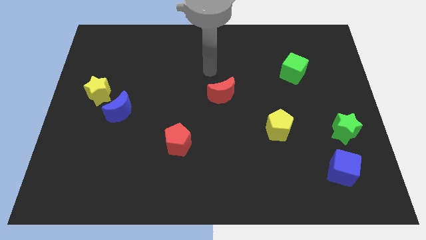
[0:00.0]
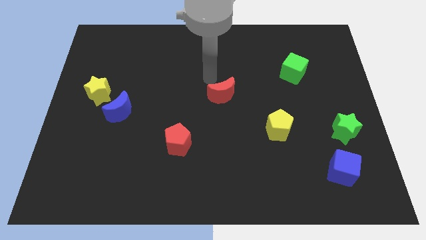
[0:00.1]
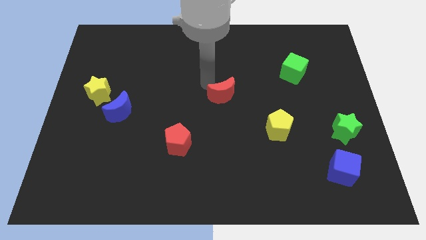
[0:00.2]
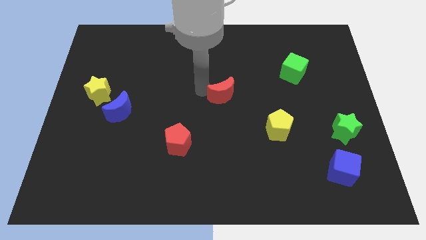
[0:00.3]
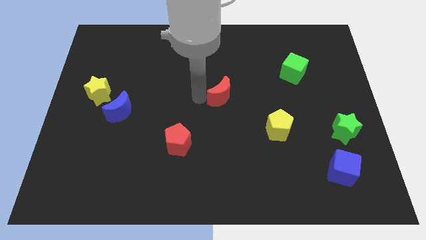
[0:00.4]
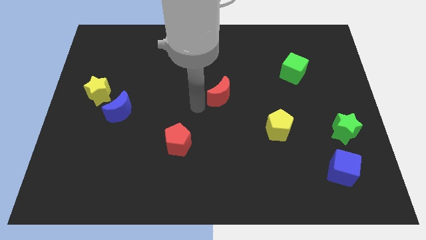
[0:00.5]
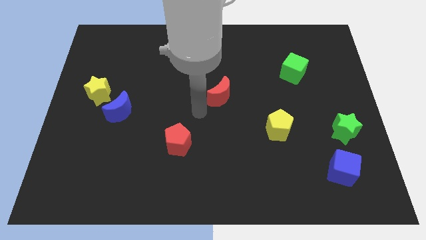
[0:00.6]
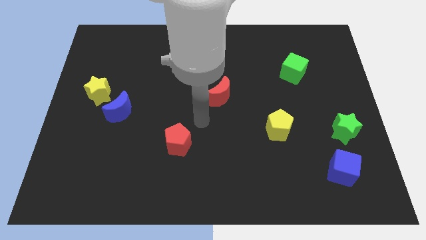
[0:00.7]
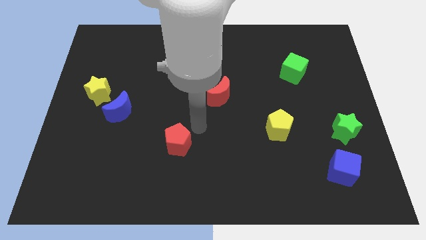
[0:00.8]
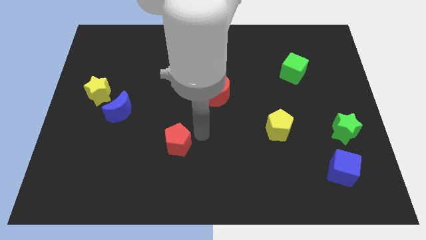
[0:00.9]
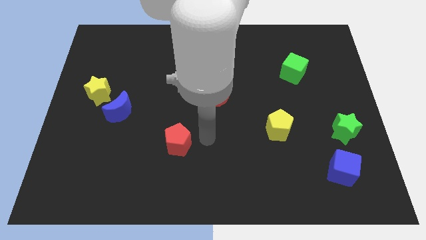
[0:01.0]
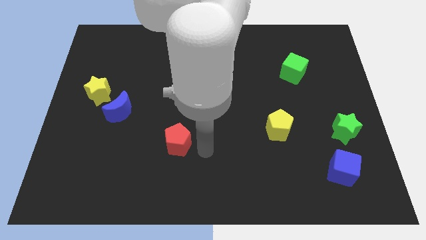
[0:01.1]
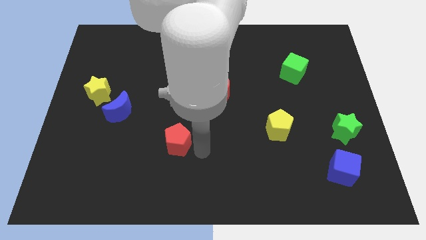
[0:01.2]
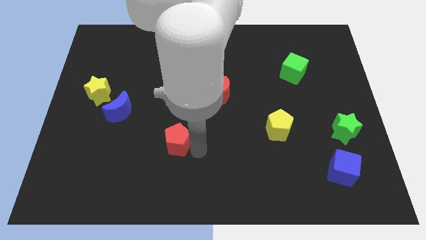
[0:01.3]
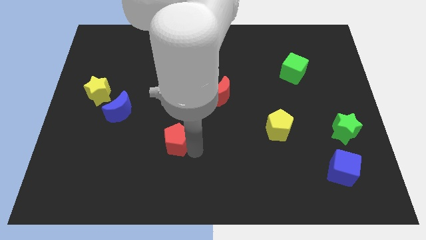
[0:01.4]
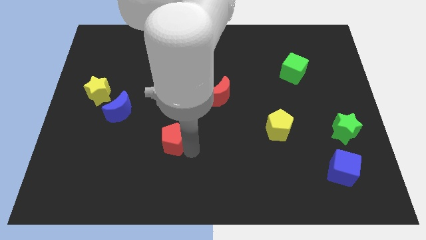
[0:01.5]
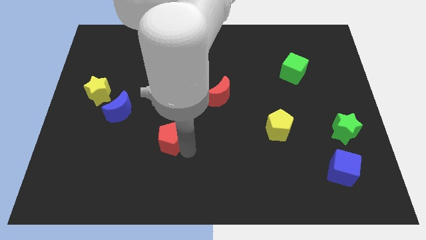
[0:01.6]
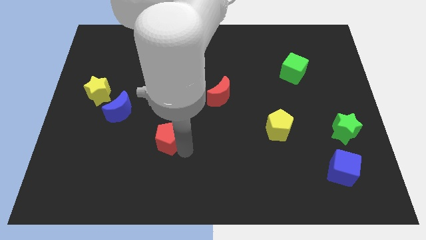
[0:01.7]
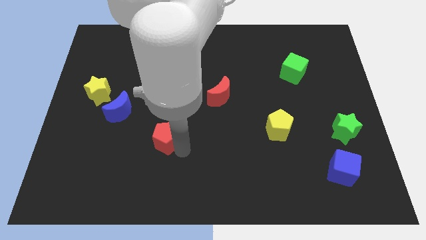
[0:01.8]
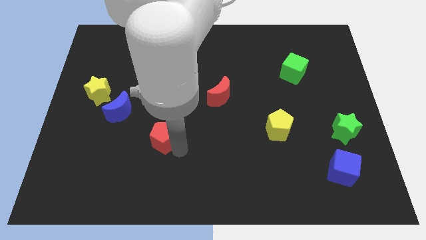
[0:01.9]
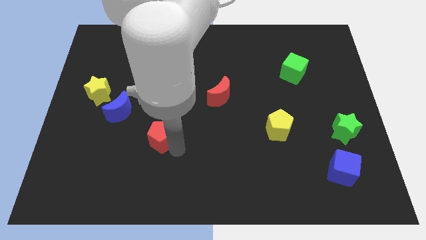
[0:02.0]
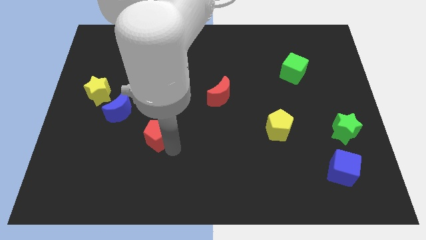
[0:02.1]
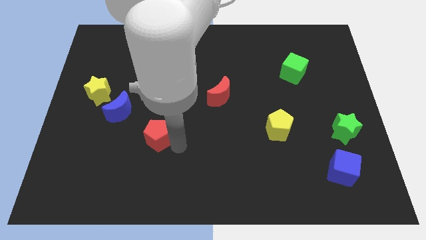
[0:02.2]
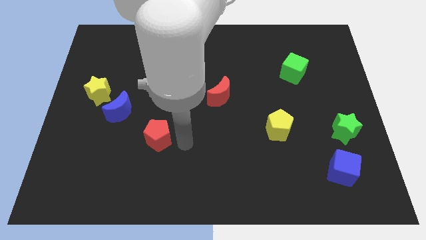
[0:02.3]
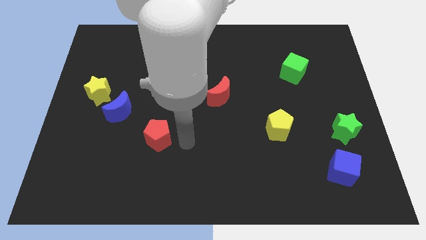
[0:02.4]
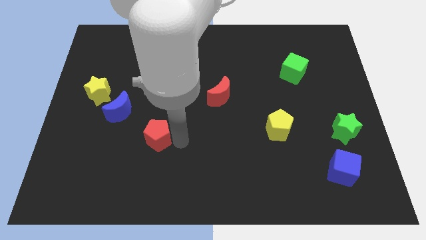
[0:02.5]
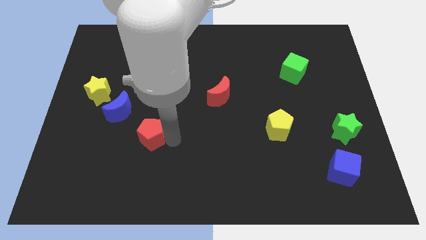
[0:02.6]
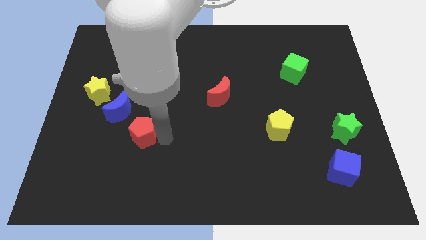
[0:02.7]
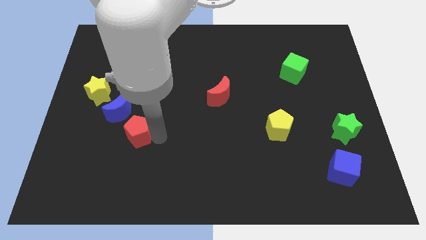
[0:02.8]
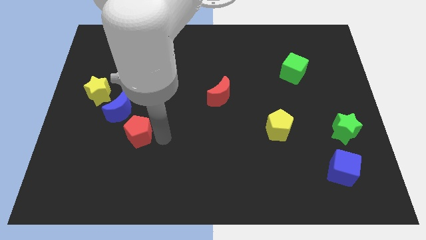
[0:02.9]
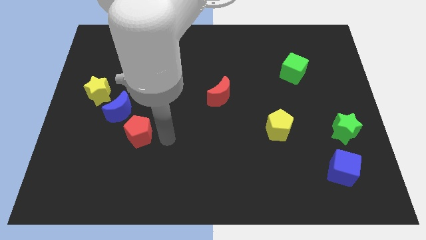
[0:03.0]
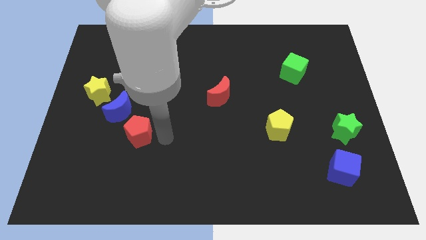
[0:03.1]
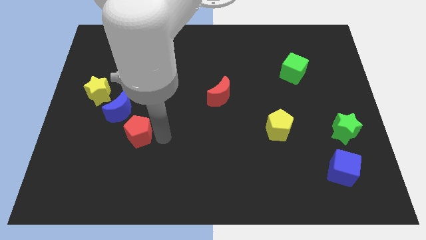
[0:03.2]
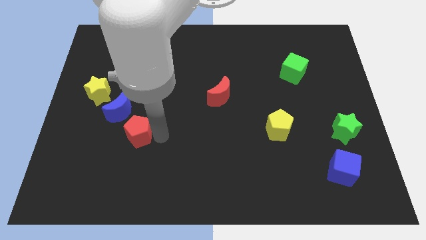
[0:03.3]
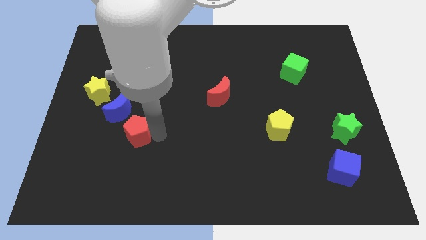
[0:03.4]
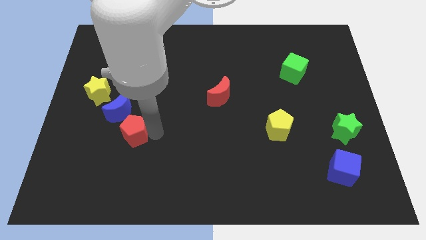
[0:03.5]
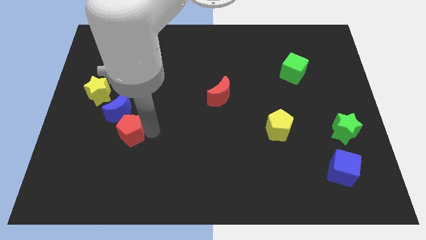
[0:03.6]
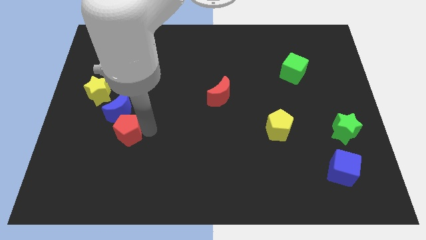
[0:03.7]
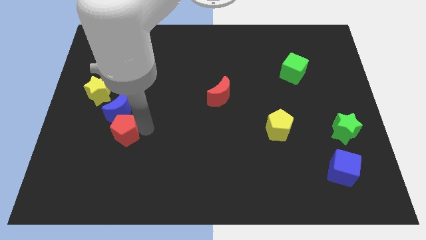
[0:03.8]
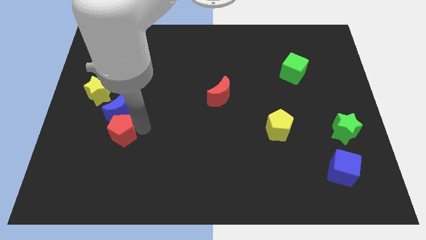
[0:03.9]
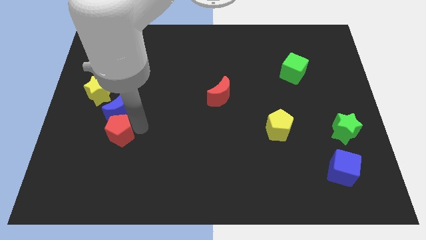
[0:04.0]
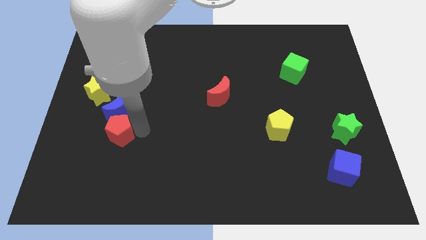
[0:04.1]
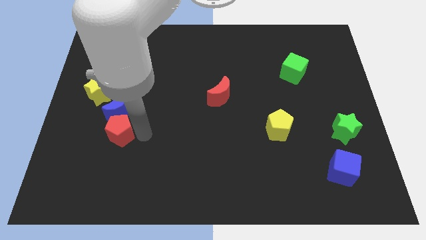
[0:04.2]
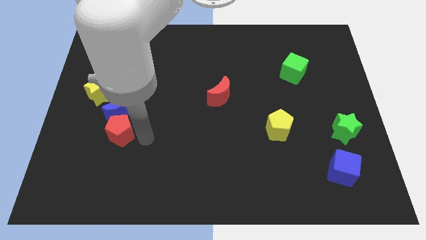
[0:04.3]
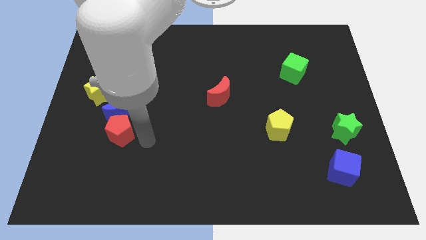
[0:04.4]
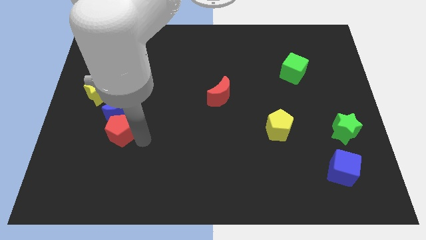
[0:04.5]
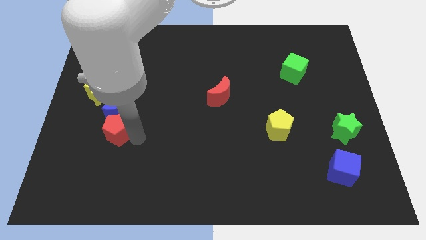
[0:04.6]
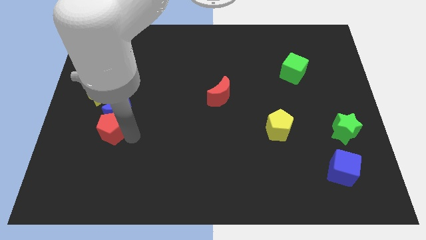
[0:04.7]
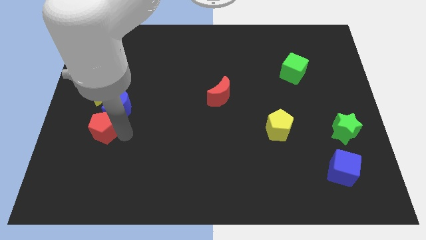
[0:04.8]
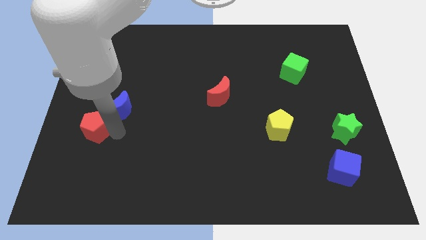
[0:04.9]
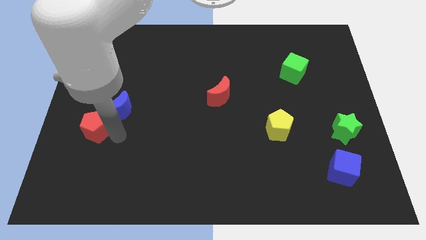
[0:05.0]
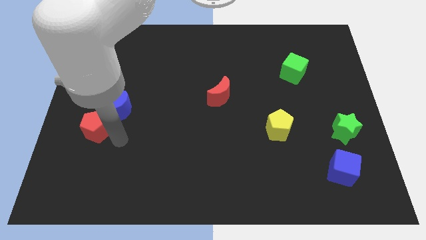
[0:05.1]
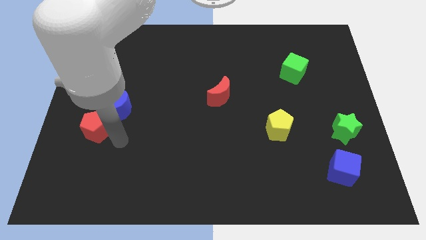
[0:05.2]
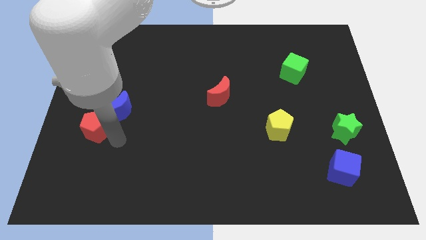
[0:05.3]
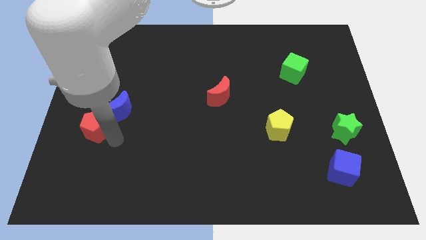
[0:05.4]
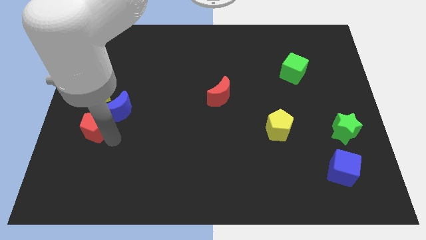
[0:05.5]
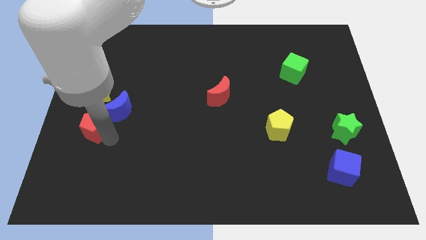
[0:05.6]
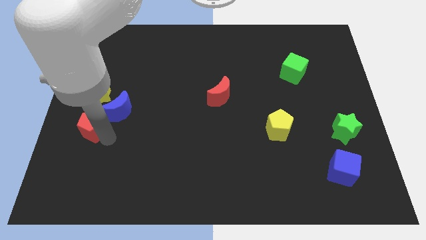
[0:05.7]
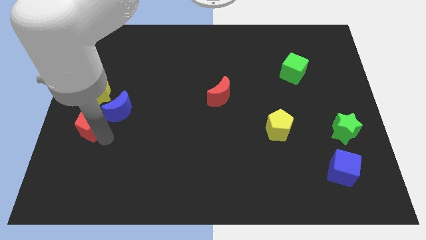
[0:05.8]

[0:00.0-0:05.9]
put the red pentagon to the left side
